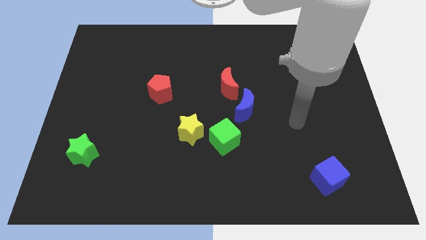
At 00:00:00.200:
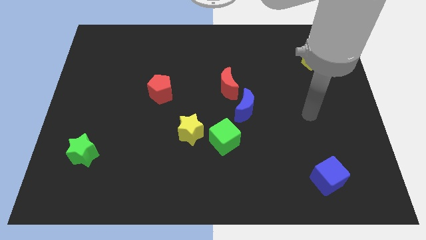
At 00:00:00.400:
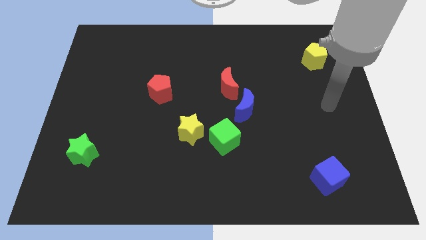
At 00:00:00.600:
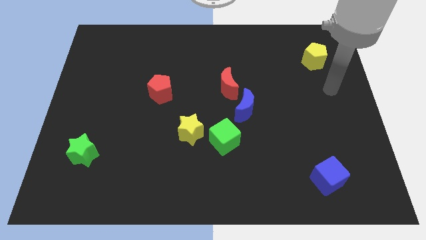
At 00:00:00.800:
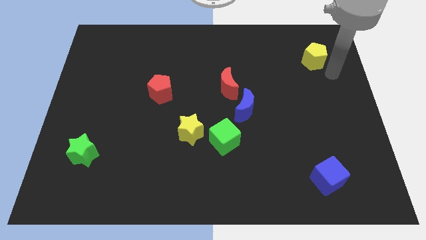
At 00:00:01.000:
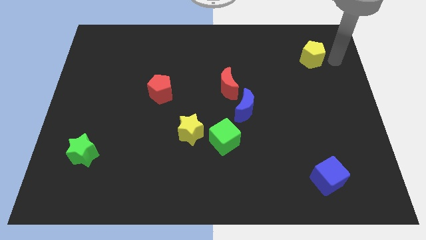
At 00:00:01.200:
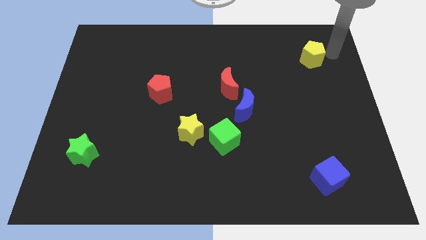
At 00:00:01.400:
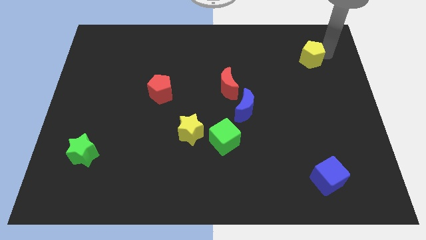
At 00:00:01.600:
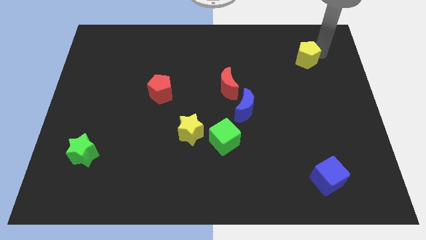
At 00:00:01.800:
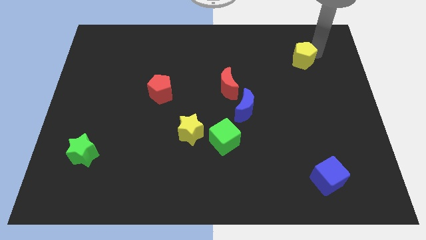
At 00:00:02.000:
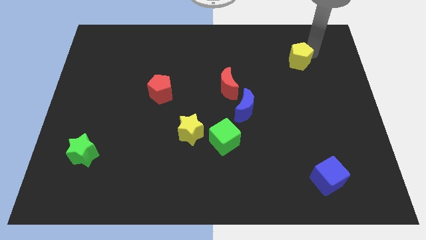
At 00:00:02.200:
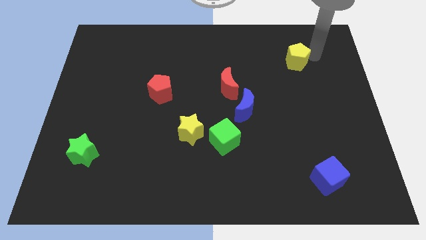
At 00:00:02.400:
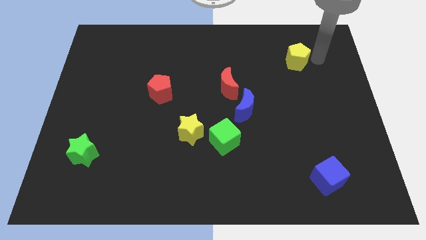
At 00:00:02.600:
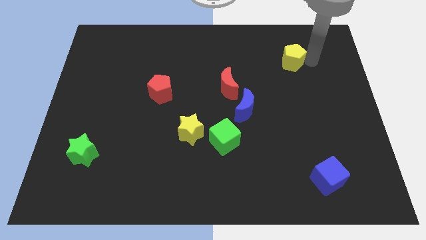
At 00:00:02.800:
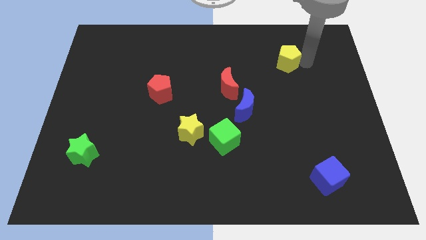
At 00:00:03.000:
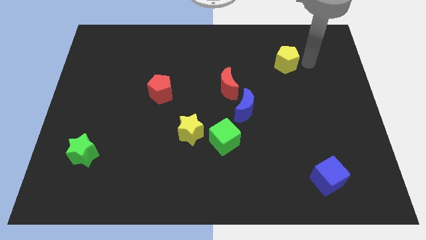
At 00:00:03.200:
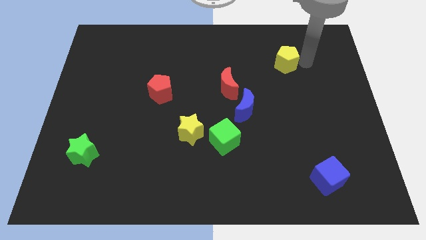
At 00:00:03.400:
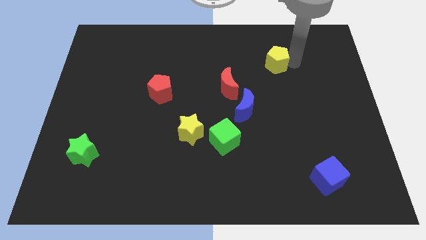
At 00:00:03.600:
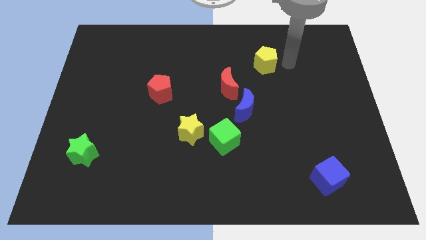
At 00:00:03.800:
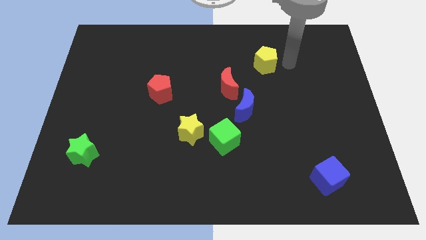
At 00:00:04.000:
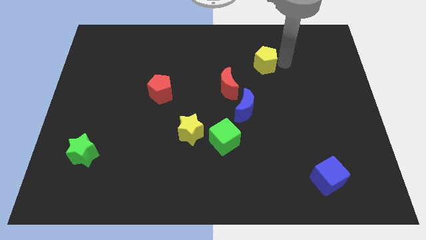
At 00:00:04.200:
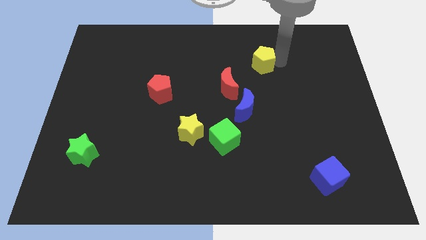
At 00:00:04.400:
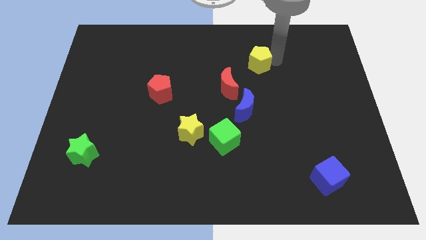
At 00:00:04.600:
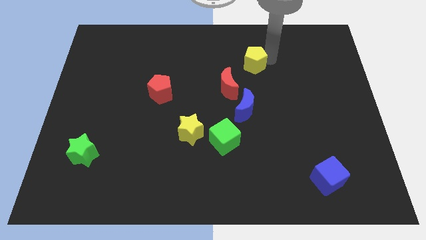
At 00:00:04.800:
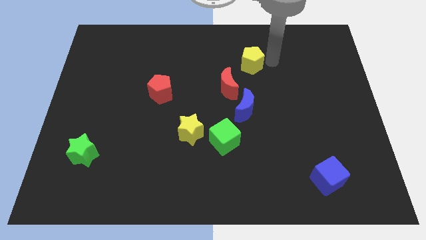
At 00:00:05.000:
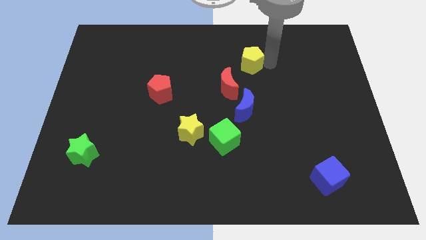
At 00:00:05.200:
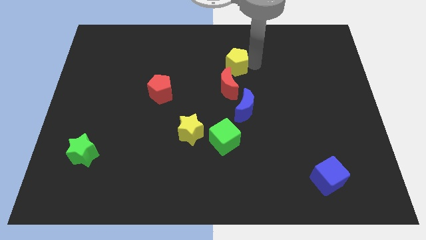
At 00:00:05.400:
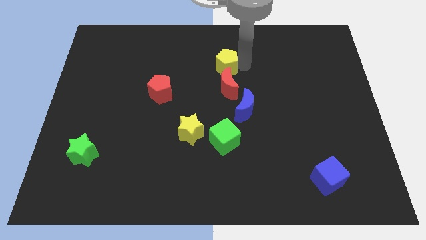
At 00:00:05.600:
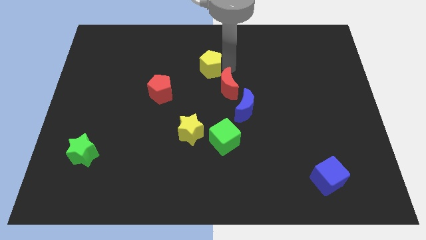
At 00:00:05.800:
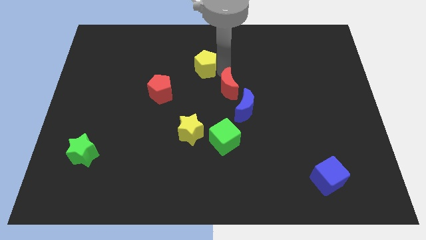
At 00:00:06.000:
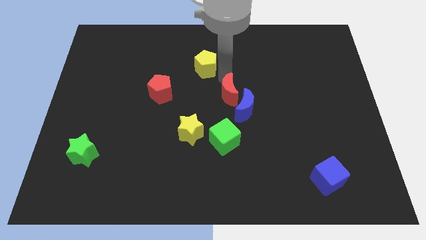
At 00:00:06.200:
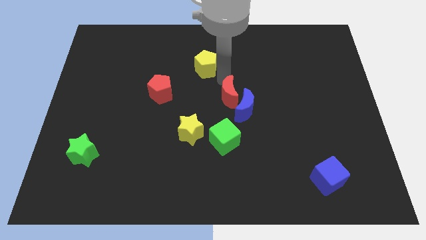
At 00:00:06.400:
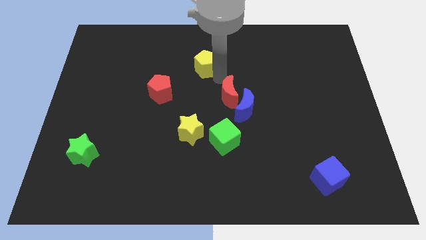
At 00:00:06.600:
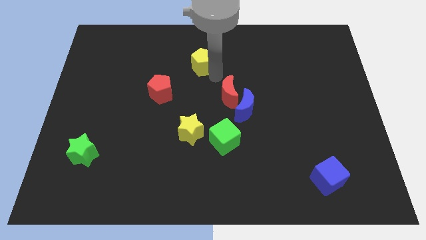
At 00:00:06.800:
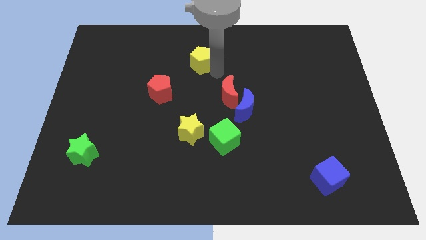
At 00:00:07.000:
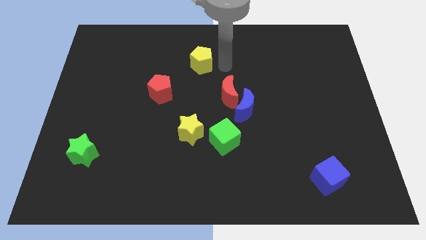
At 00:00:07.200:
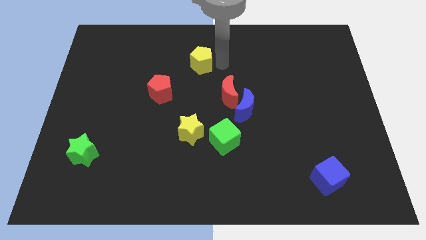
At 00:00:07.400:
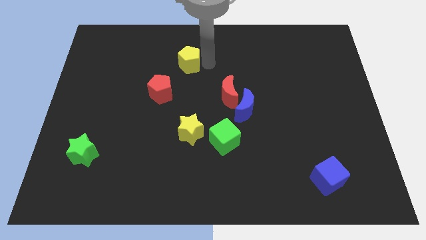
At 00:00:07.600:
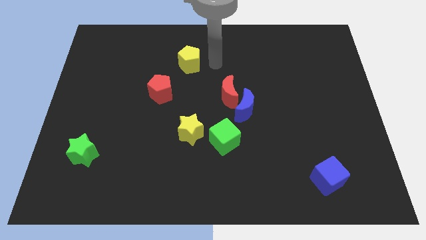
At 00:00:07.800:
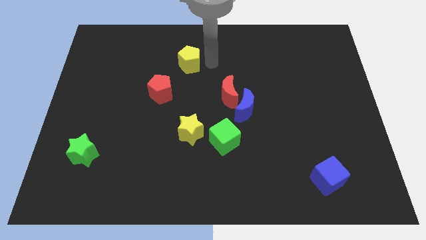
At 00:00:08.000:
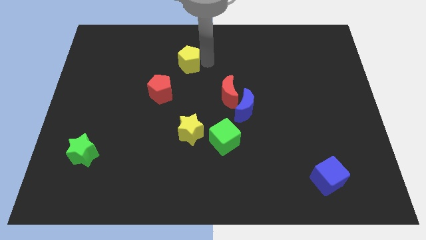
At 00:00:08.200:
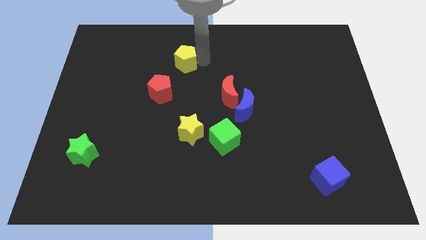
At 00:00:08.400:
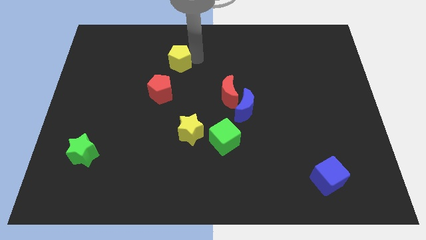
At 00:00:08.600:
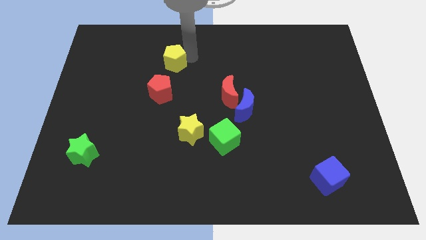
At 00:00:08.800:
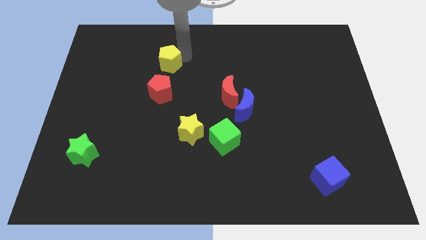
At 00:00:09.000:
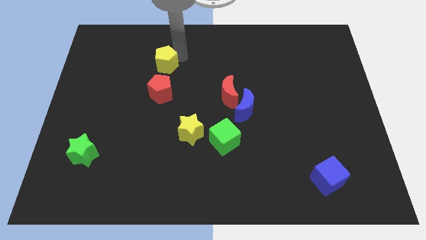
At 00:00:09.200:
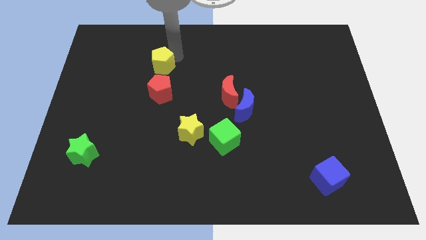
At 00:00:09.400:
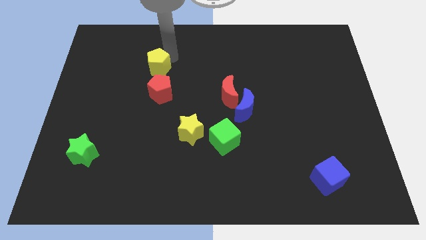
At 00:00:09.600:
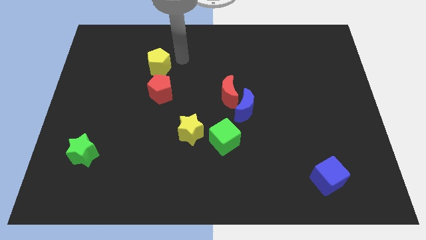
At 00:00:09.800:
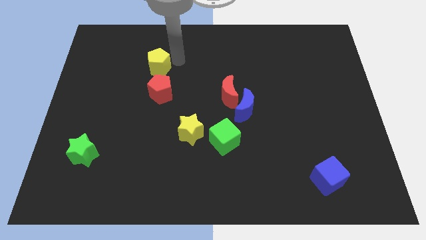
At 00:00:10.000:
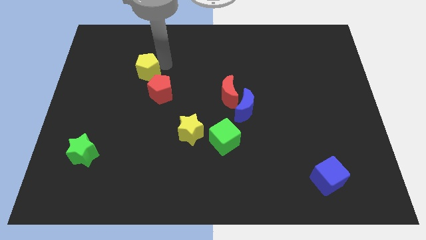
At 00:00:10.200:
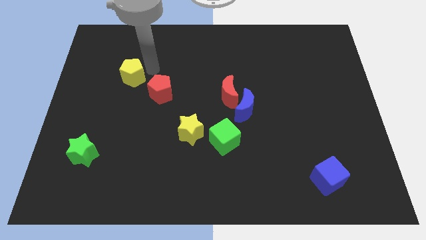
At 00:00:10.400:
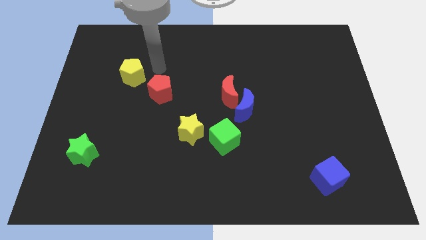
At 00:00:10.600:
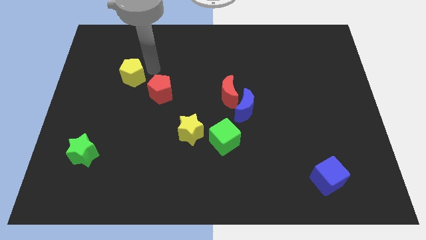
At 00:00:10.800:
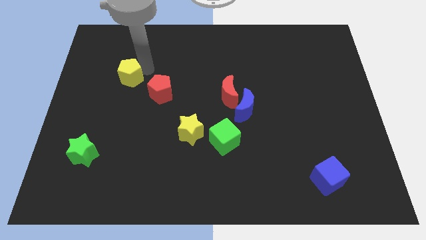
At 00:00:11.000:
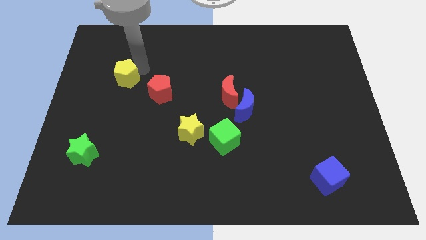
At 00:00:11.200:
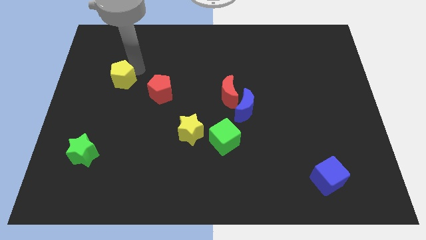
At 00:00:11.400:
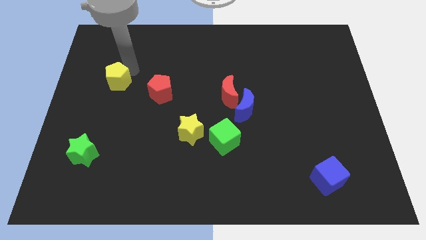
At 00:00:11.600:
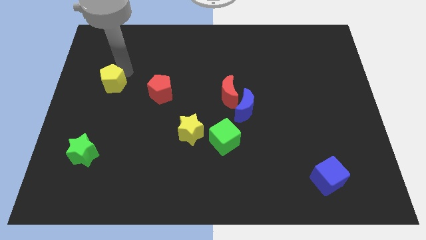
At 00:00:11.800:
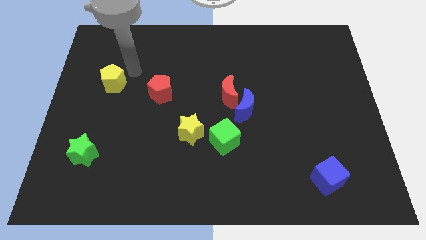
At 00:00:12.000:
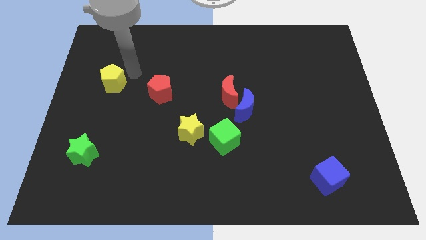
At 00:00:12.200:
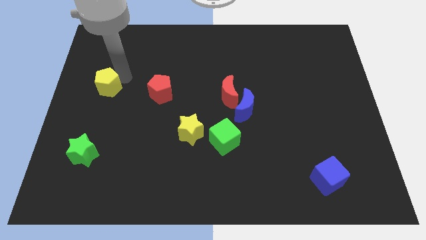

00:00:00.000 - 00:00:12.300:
push the yellow pentagon to the left side of the board
